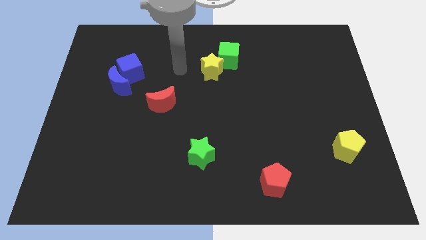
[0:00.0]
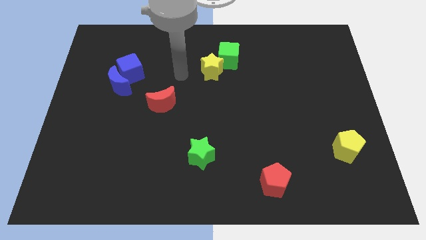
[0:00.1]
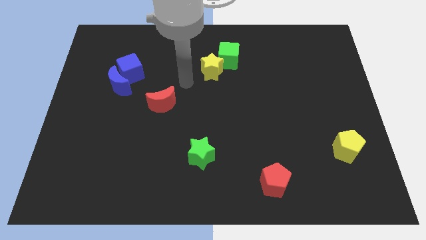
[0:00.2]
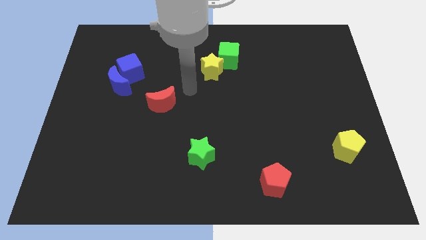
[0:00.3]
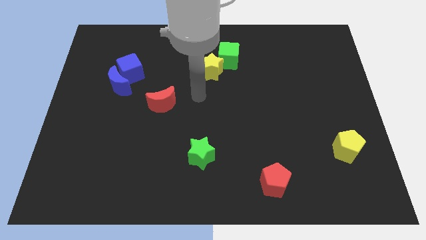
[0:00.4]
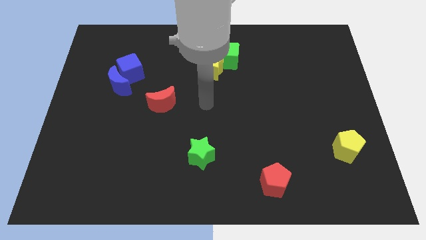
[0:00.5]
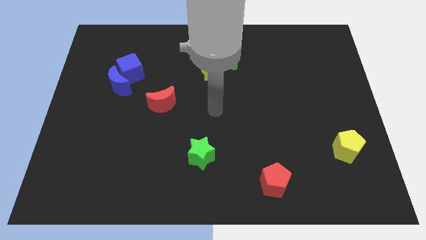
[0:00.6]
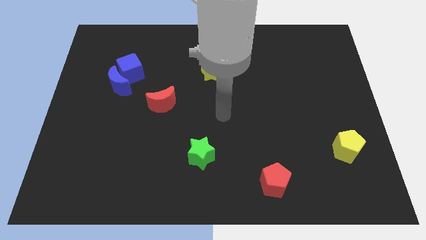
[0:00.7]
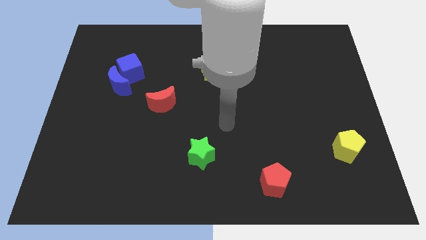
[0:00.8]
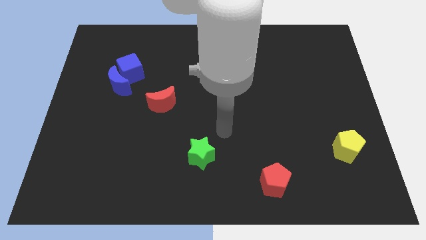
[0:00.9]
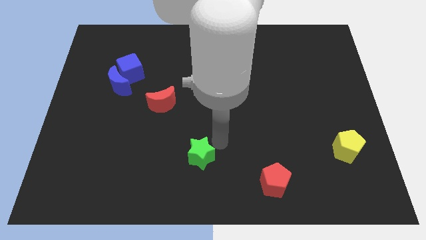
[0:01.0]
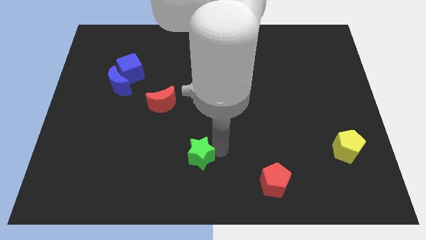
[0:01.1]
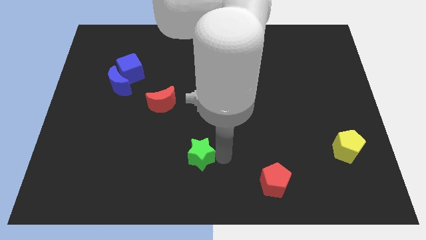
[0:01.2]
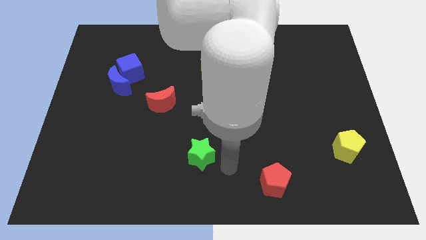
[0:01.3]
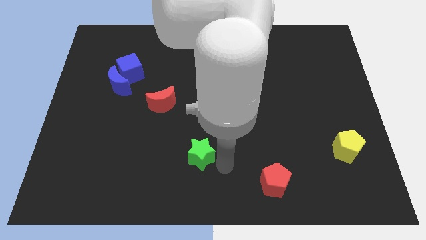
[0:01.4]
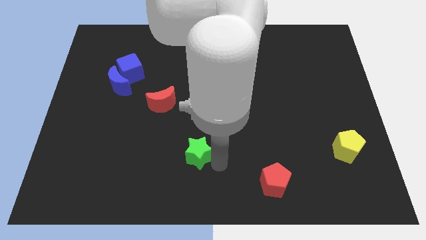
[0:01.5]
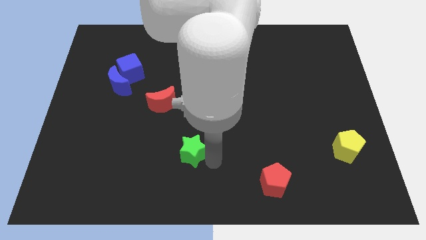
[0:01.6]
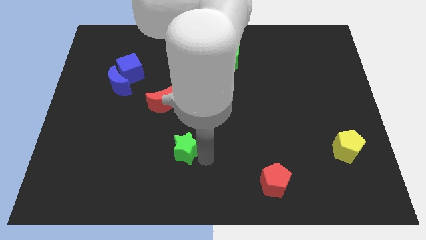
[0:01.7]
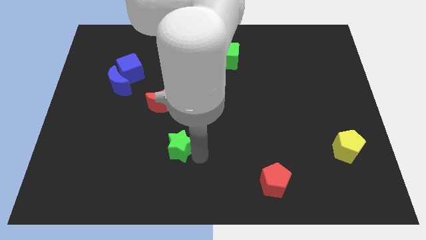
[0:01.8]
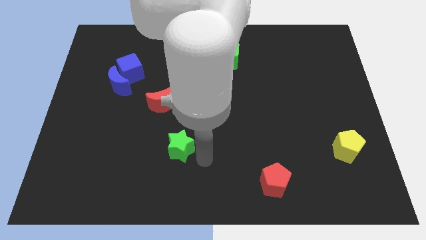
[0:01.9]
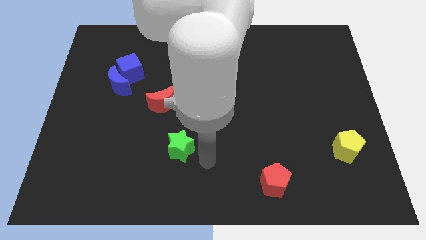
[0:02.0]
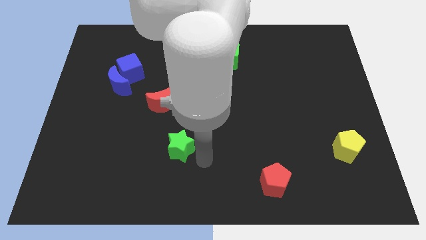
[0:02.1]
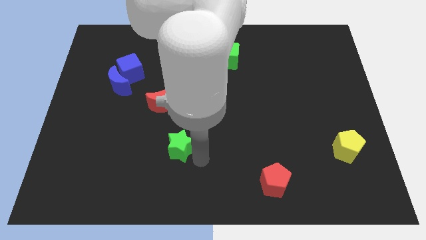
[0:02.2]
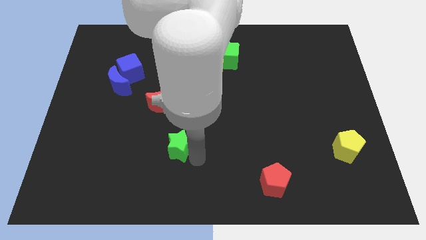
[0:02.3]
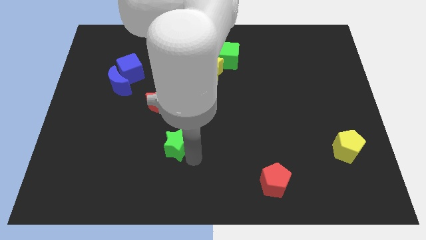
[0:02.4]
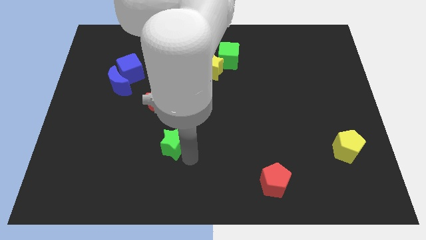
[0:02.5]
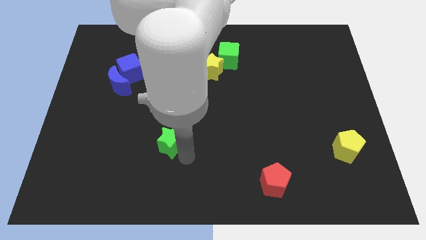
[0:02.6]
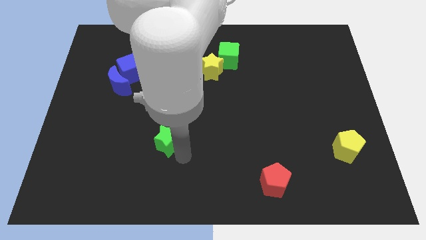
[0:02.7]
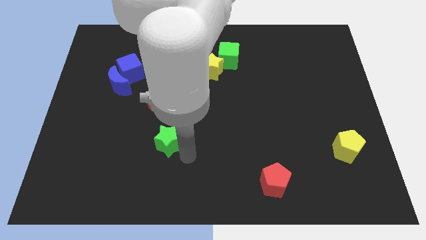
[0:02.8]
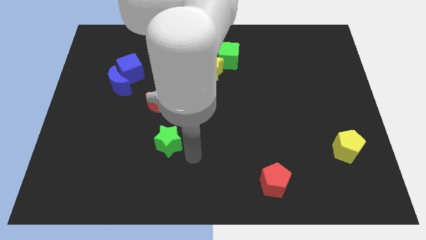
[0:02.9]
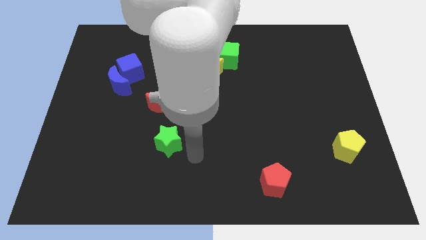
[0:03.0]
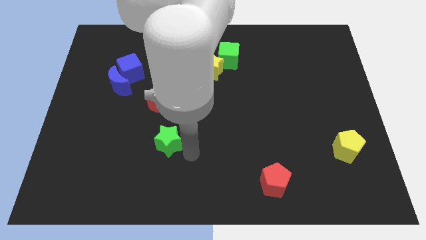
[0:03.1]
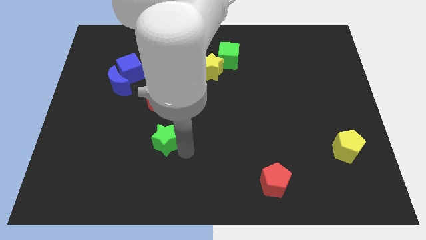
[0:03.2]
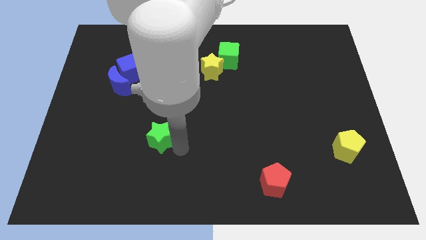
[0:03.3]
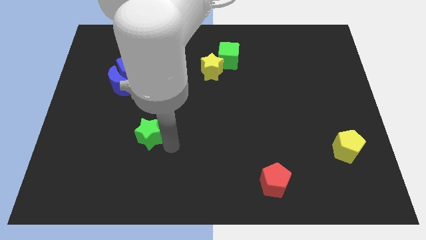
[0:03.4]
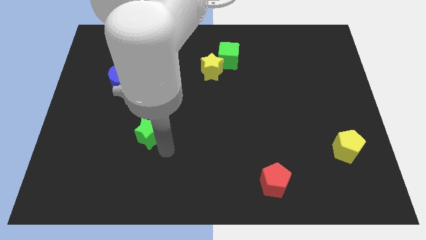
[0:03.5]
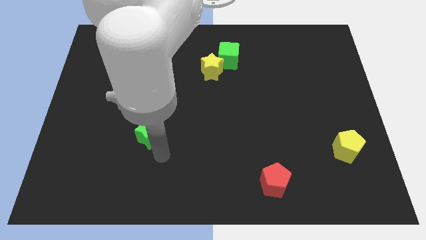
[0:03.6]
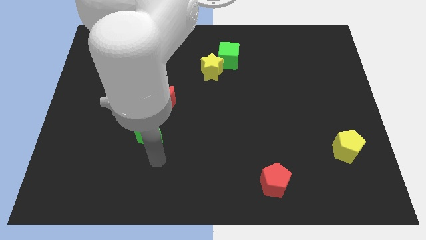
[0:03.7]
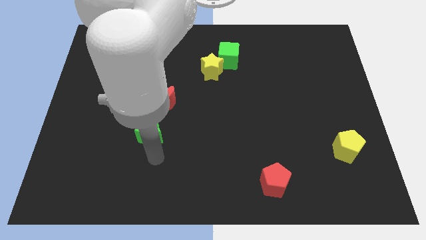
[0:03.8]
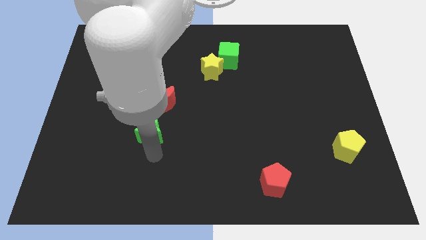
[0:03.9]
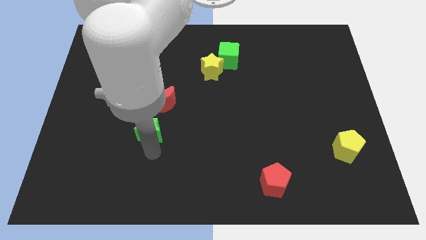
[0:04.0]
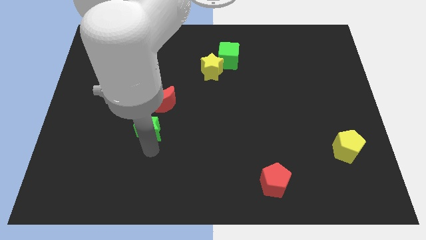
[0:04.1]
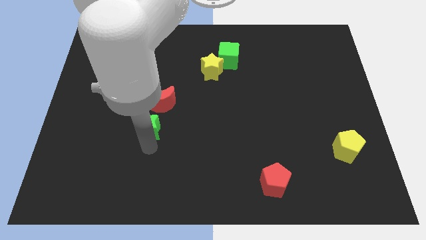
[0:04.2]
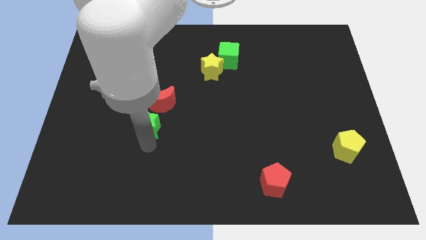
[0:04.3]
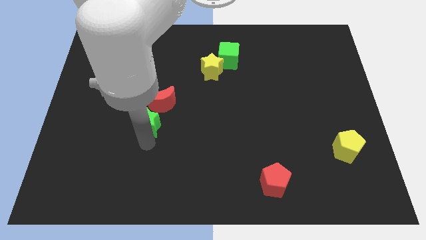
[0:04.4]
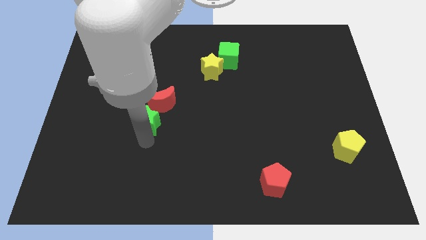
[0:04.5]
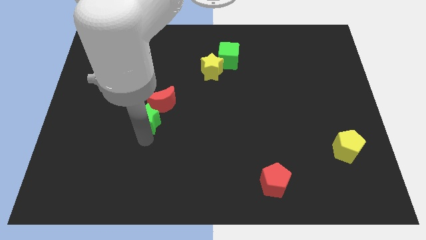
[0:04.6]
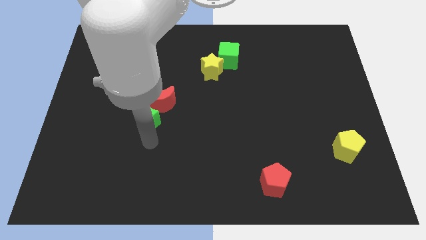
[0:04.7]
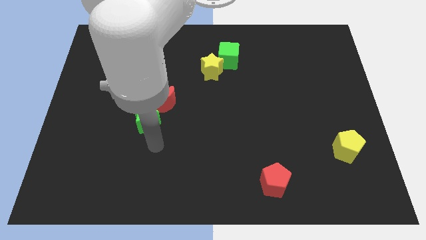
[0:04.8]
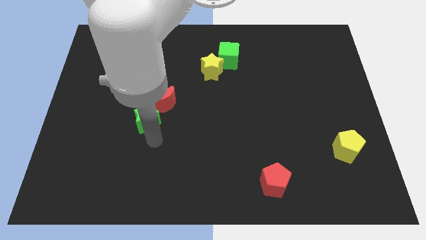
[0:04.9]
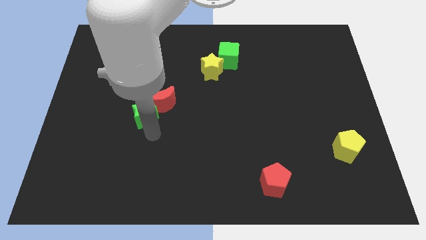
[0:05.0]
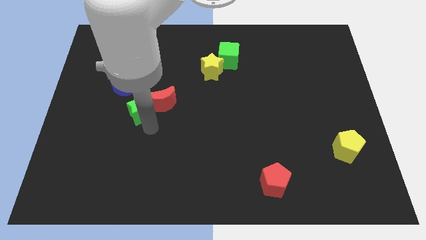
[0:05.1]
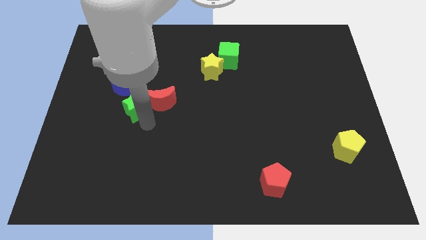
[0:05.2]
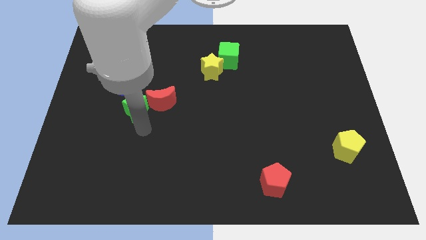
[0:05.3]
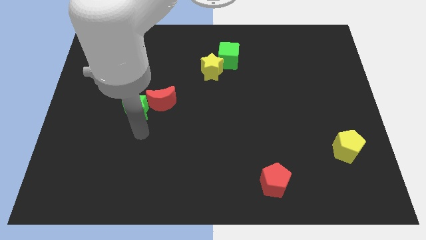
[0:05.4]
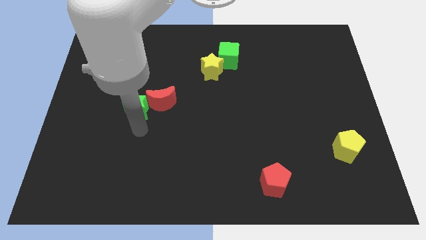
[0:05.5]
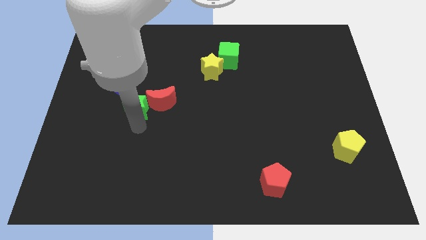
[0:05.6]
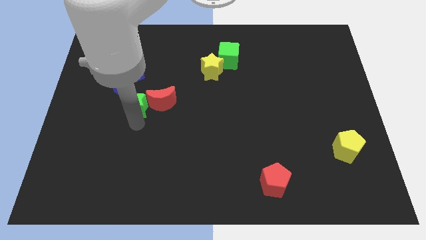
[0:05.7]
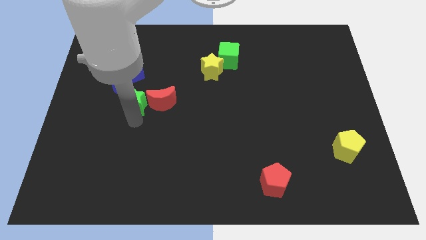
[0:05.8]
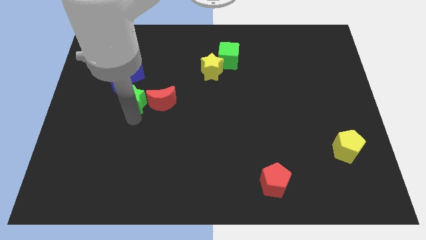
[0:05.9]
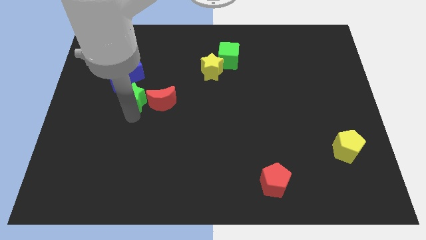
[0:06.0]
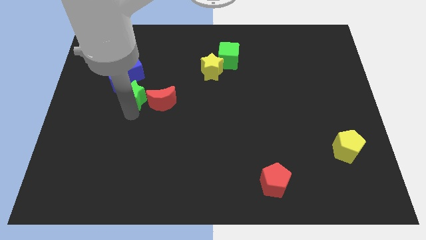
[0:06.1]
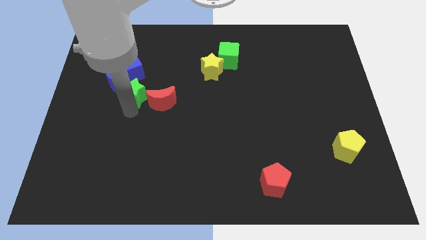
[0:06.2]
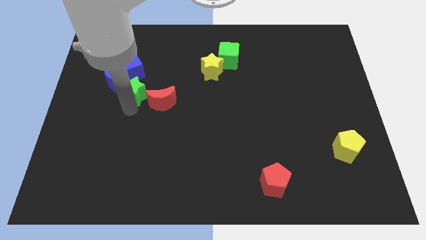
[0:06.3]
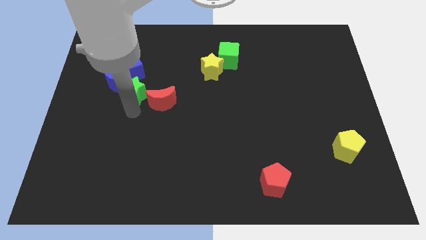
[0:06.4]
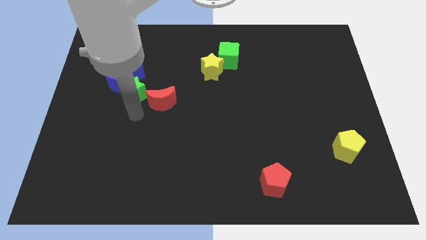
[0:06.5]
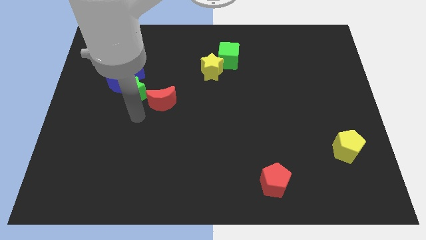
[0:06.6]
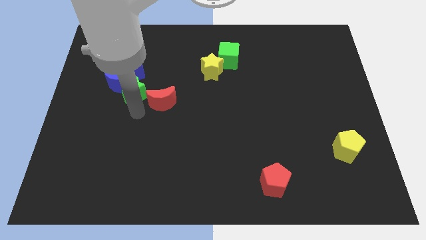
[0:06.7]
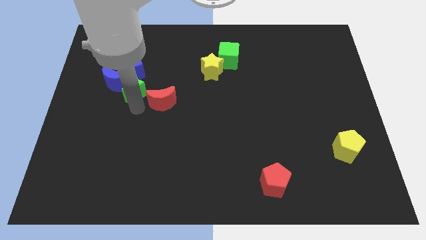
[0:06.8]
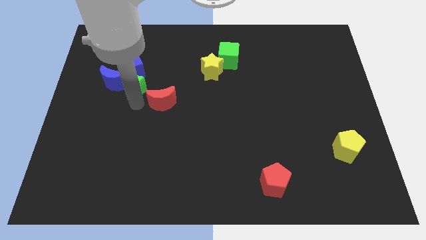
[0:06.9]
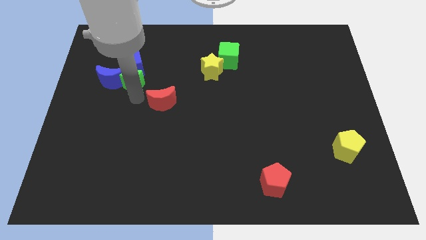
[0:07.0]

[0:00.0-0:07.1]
push the green star to the blue cube
